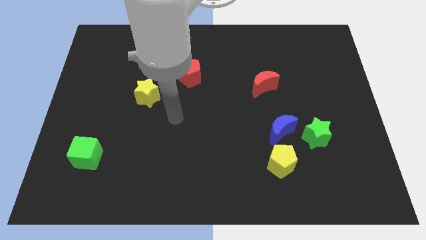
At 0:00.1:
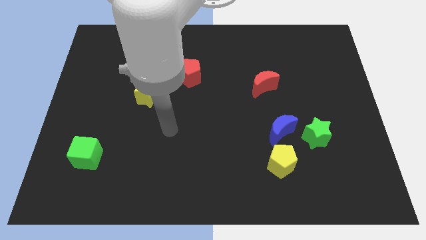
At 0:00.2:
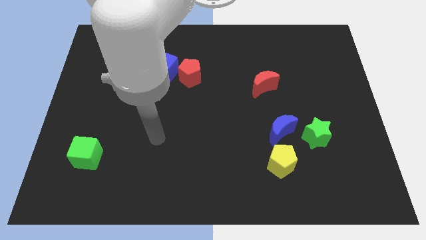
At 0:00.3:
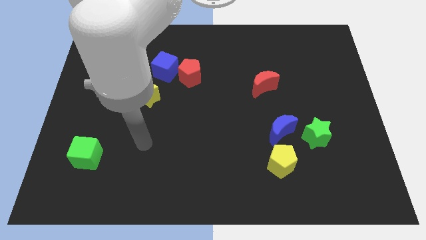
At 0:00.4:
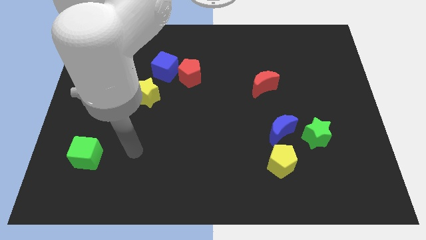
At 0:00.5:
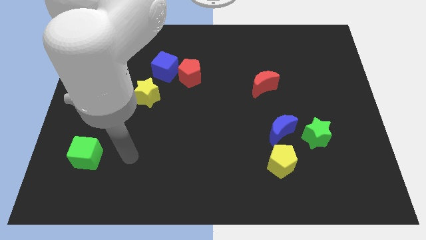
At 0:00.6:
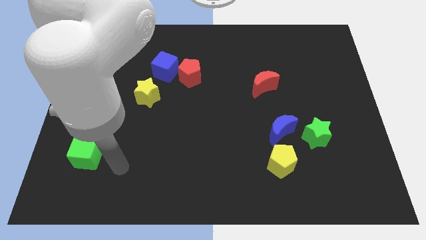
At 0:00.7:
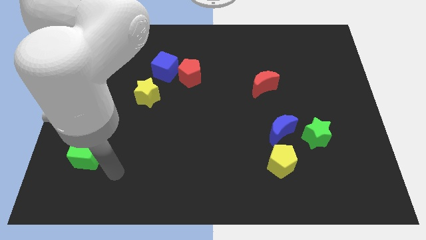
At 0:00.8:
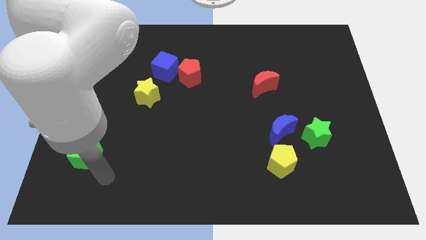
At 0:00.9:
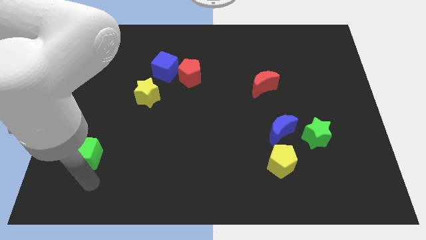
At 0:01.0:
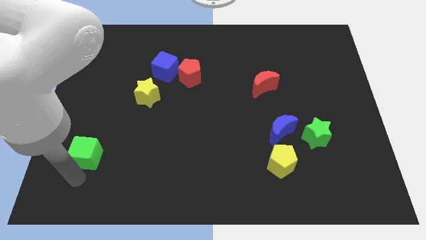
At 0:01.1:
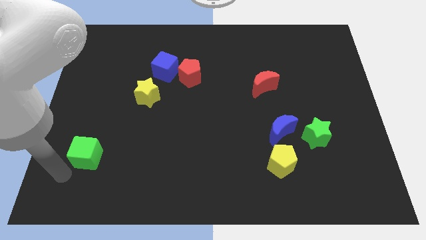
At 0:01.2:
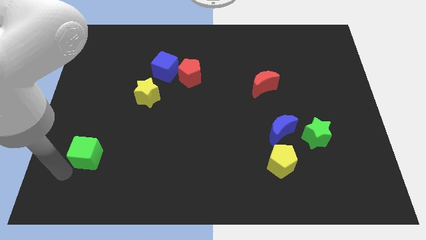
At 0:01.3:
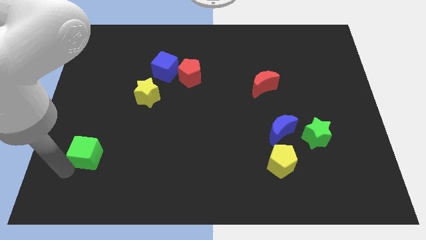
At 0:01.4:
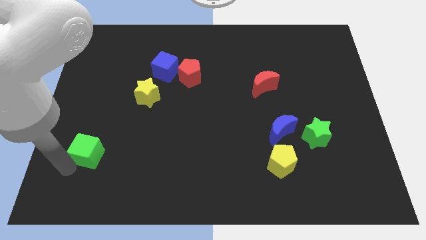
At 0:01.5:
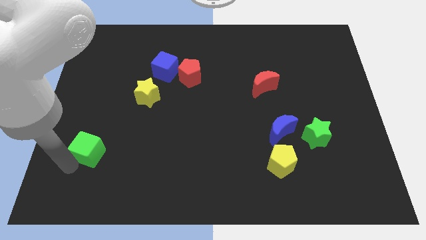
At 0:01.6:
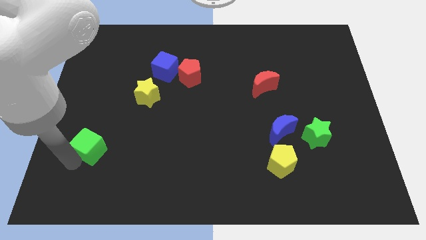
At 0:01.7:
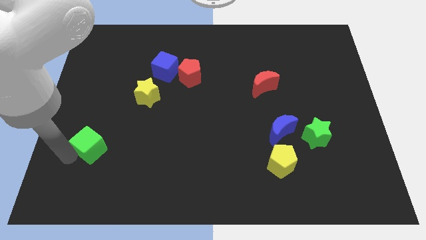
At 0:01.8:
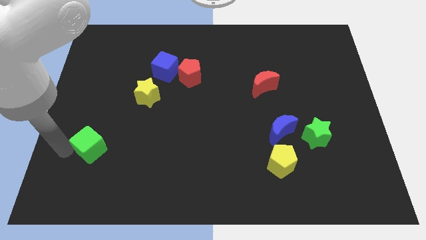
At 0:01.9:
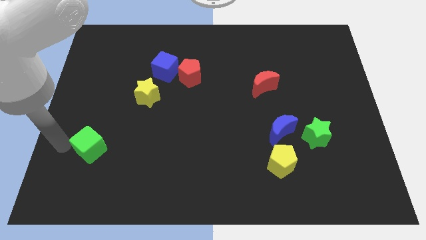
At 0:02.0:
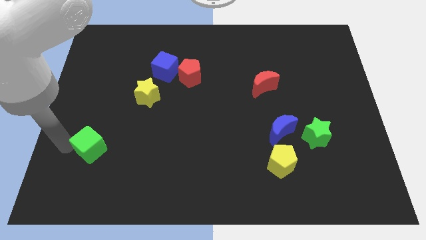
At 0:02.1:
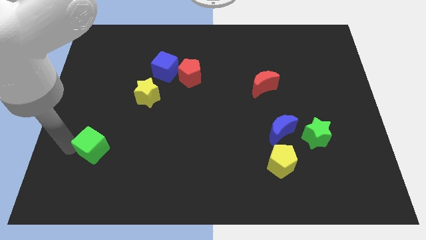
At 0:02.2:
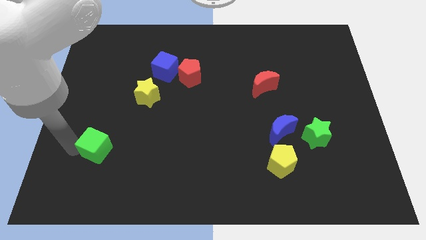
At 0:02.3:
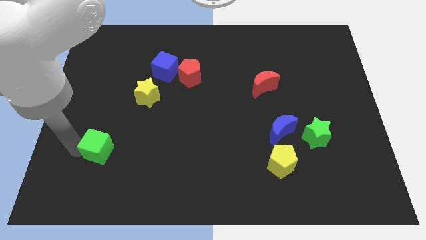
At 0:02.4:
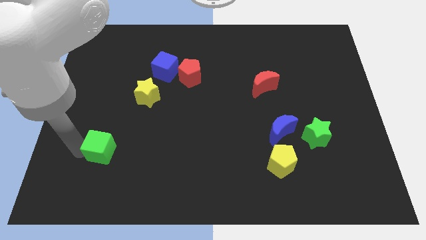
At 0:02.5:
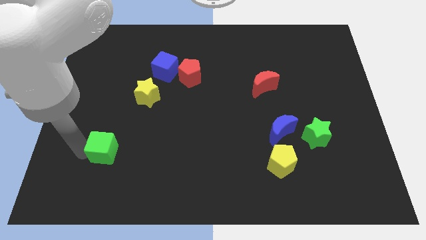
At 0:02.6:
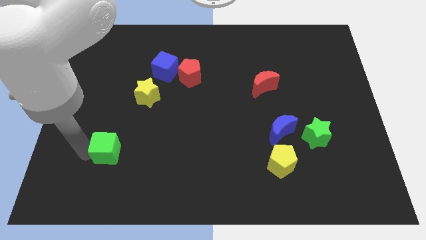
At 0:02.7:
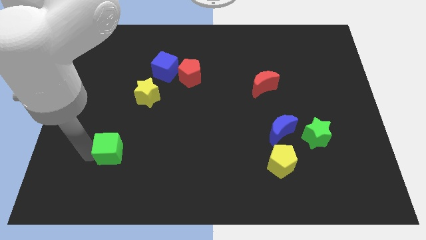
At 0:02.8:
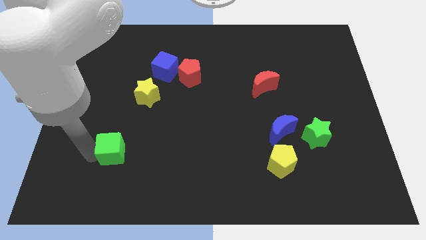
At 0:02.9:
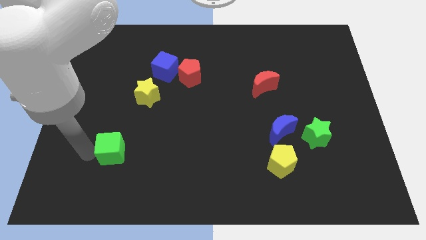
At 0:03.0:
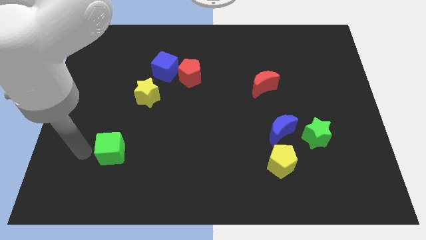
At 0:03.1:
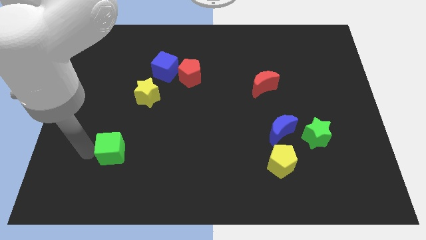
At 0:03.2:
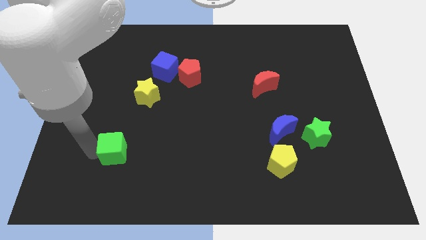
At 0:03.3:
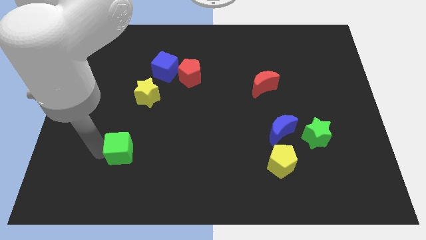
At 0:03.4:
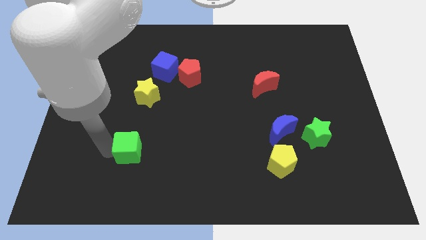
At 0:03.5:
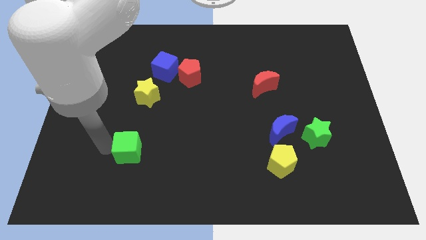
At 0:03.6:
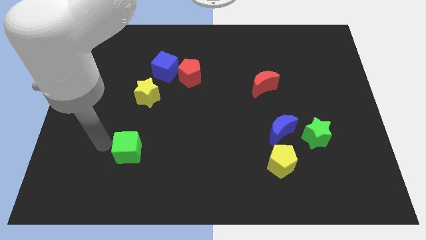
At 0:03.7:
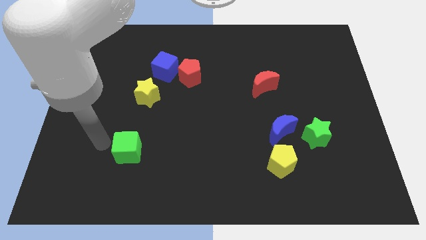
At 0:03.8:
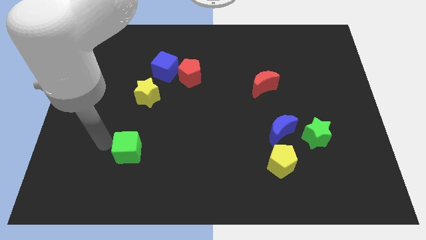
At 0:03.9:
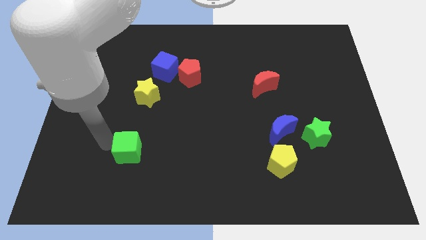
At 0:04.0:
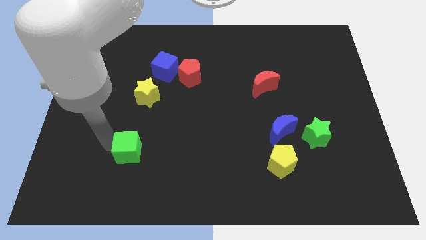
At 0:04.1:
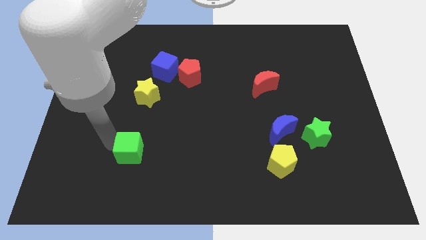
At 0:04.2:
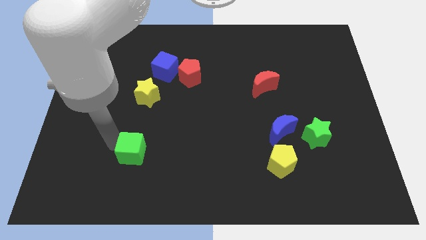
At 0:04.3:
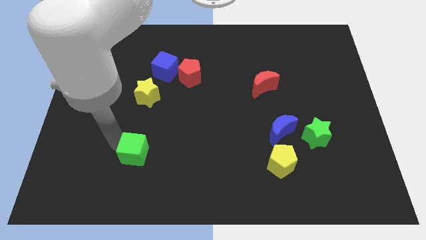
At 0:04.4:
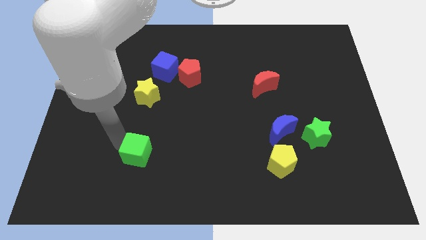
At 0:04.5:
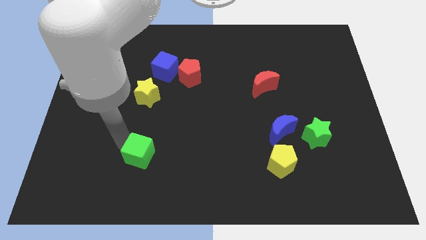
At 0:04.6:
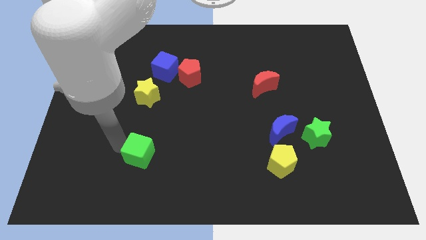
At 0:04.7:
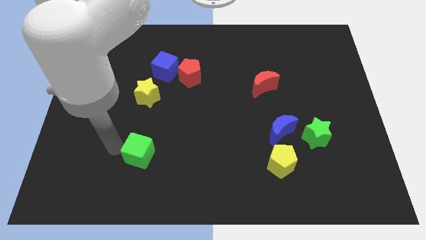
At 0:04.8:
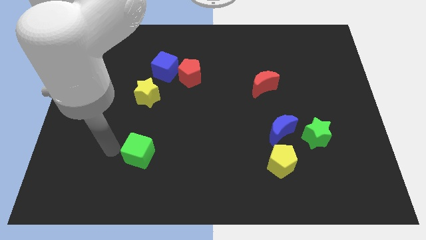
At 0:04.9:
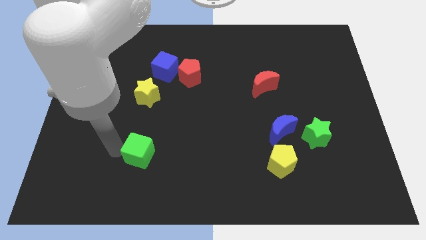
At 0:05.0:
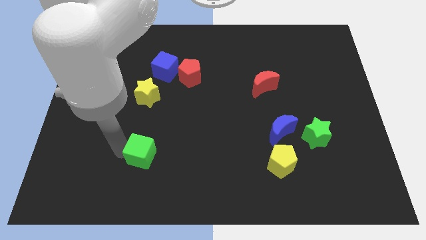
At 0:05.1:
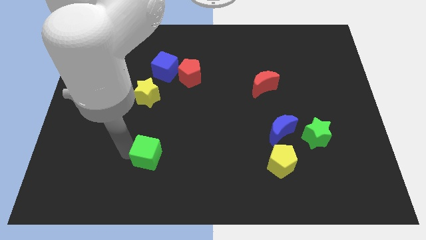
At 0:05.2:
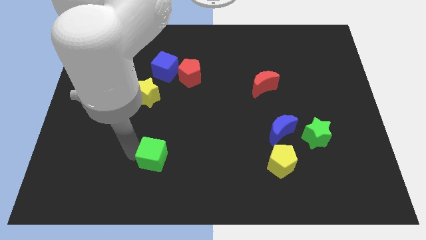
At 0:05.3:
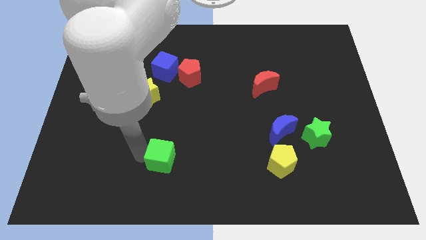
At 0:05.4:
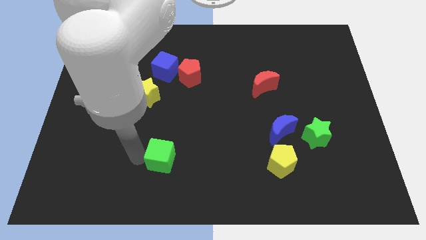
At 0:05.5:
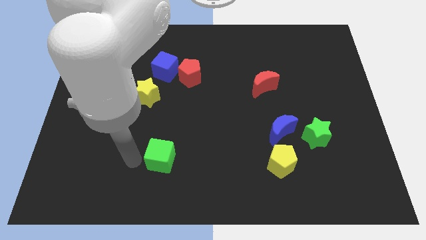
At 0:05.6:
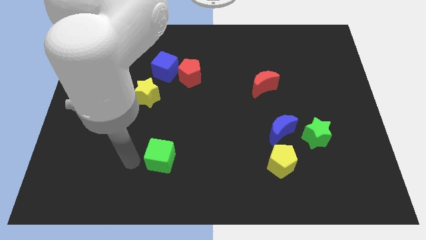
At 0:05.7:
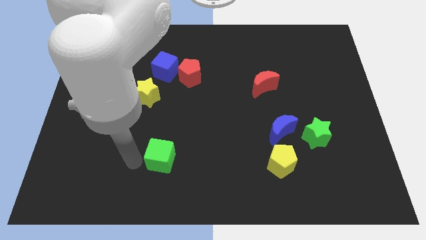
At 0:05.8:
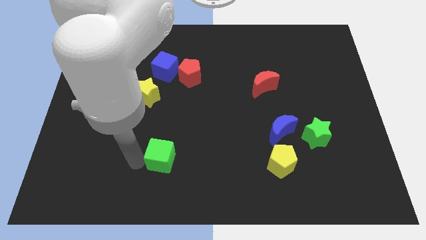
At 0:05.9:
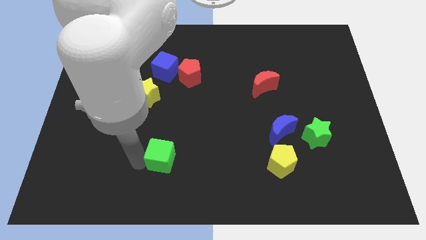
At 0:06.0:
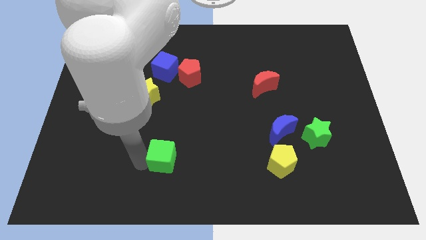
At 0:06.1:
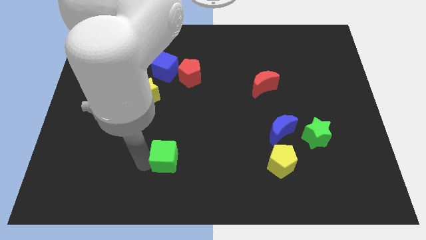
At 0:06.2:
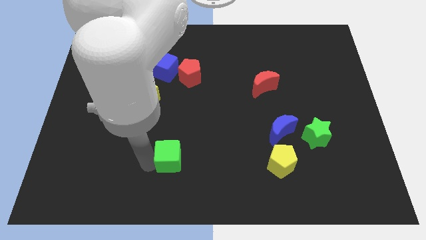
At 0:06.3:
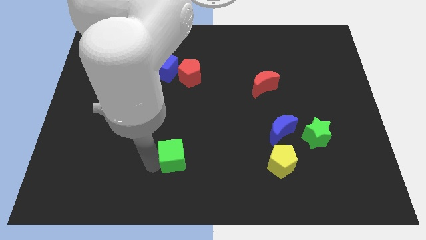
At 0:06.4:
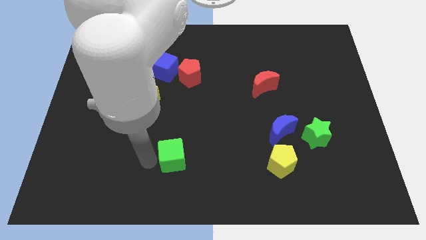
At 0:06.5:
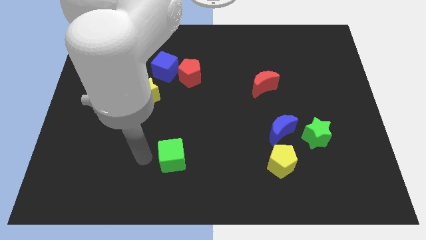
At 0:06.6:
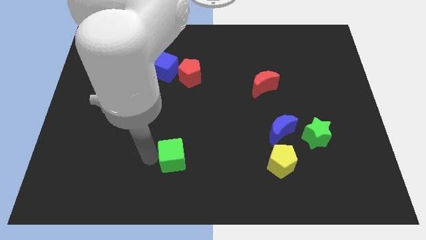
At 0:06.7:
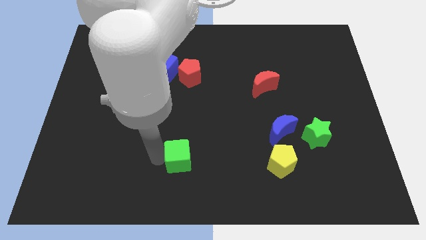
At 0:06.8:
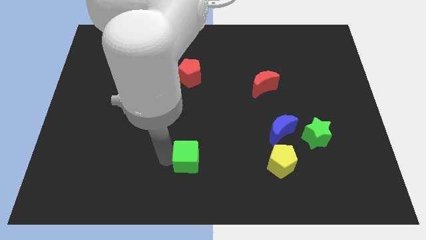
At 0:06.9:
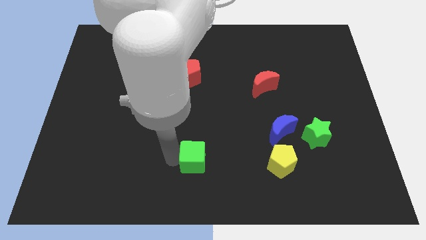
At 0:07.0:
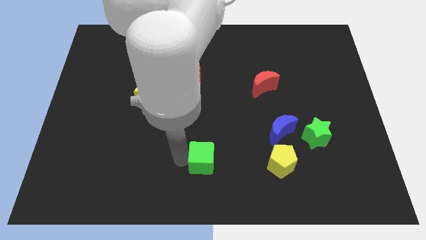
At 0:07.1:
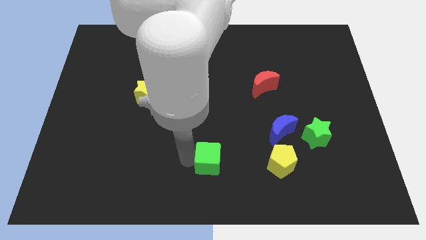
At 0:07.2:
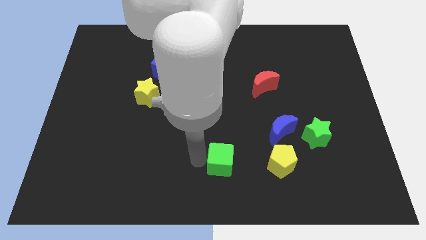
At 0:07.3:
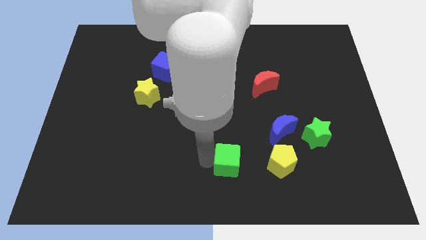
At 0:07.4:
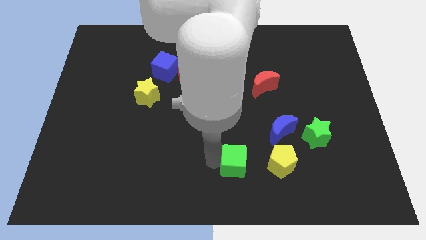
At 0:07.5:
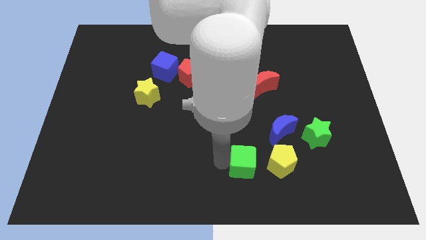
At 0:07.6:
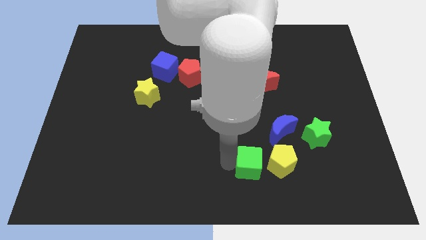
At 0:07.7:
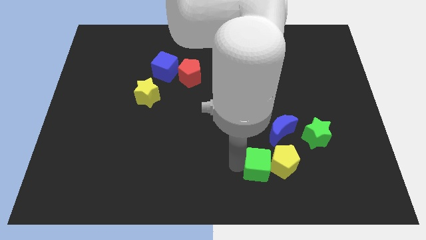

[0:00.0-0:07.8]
put the green cube towards the yellow pentagon
